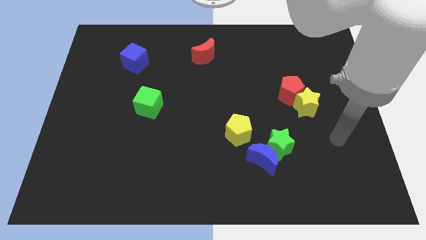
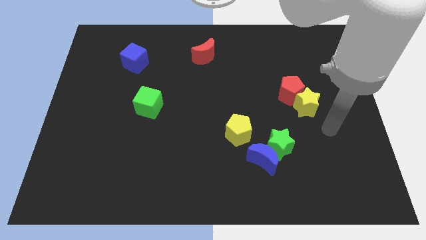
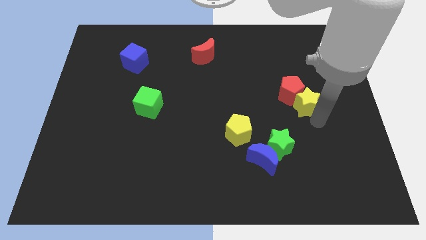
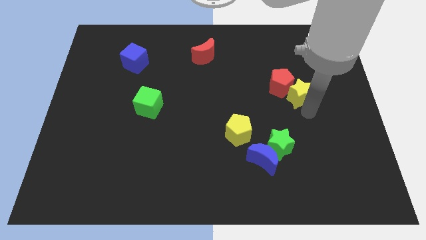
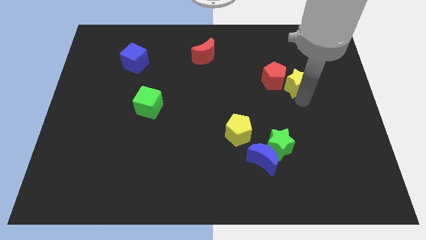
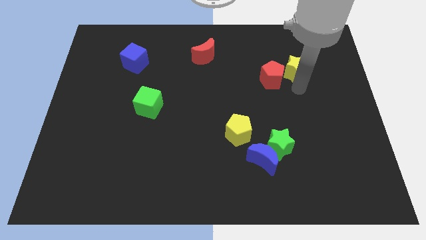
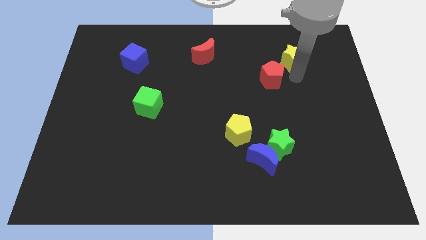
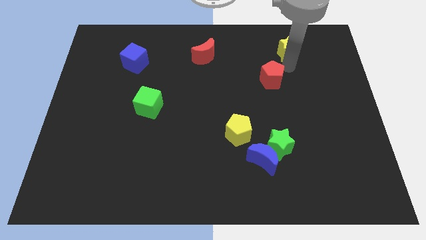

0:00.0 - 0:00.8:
separate the red pentagon from the yellow star

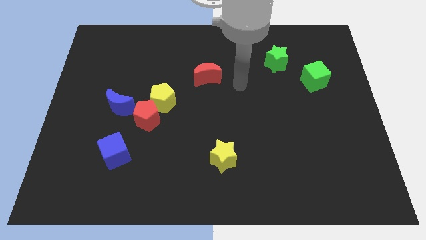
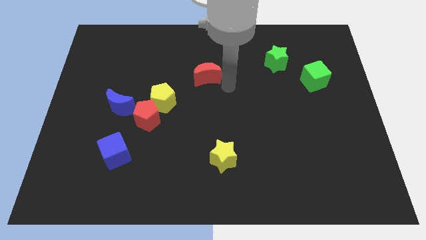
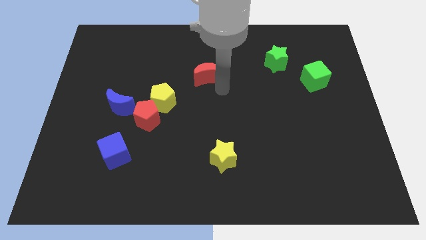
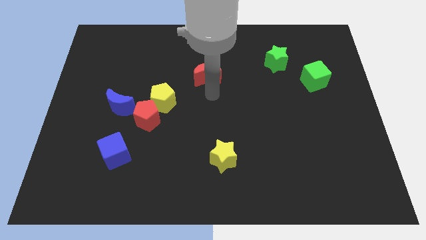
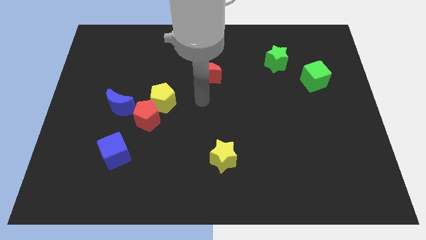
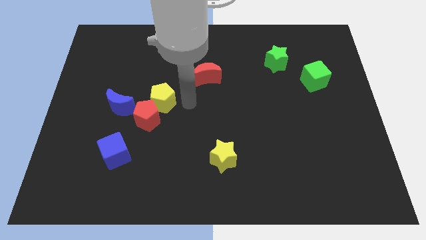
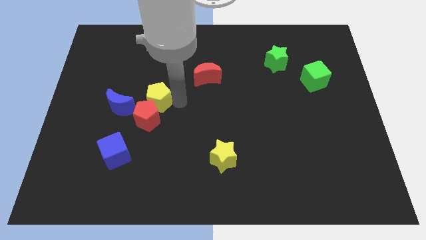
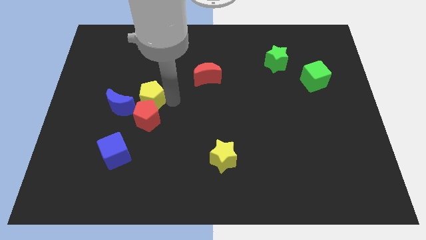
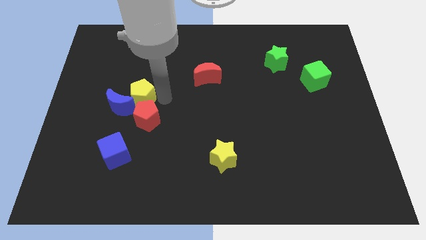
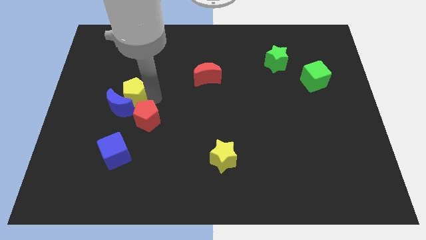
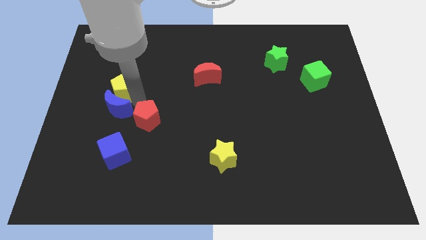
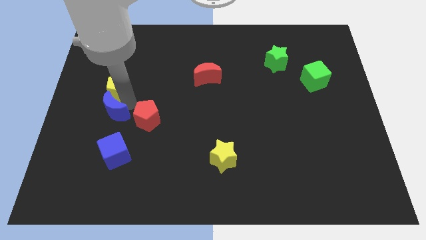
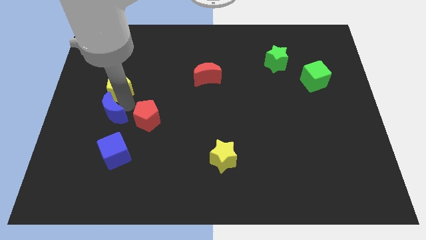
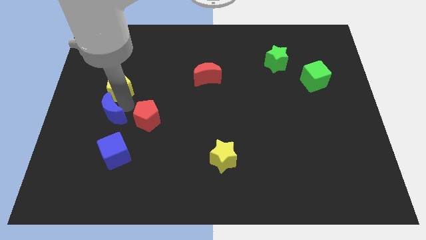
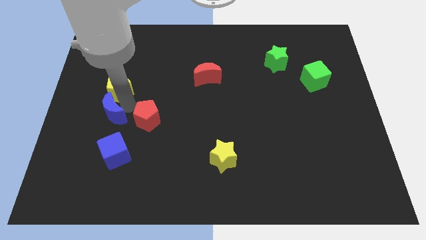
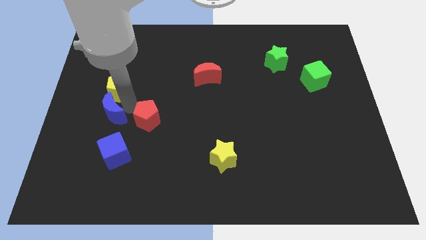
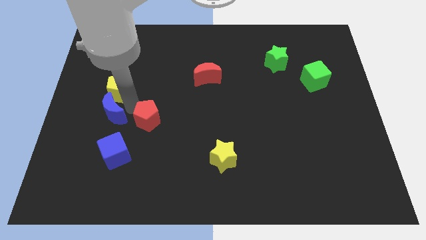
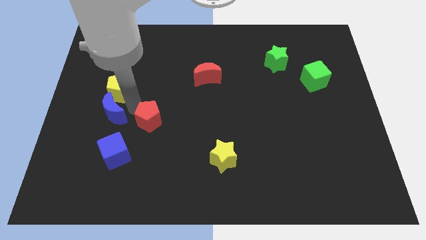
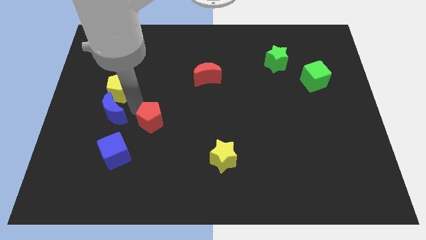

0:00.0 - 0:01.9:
move the red pentagon away from the yellow pentagon and blue moon

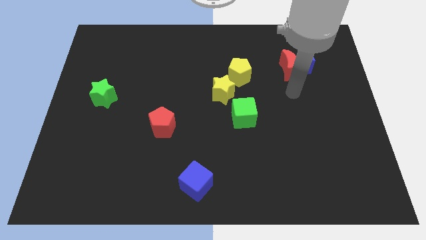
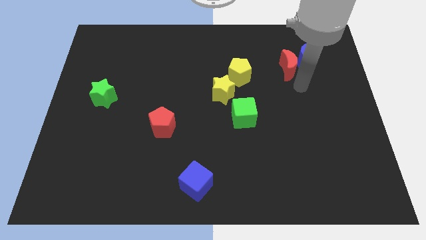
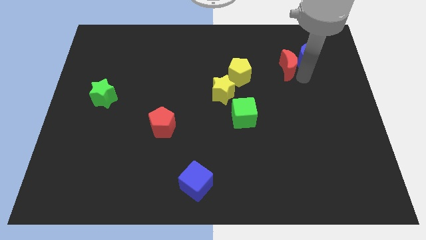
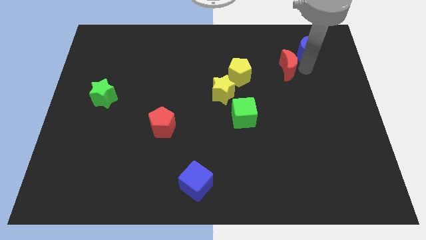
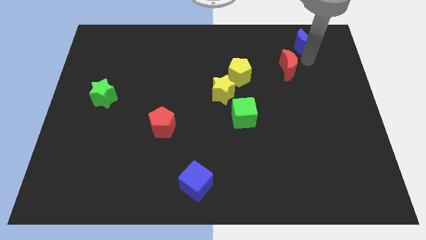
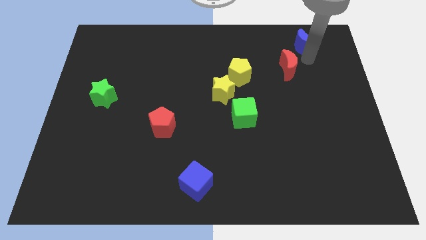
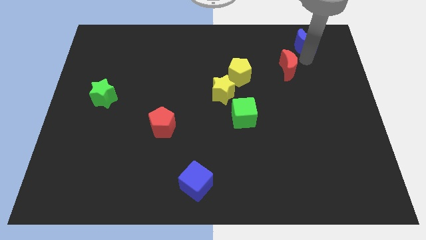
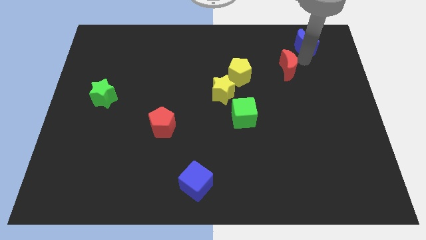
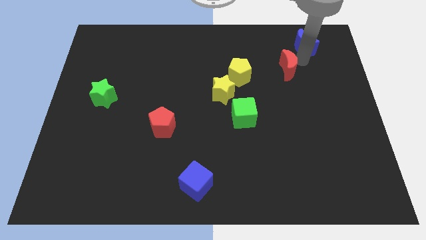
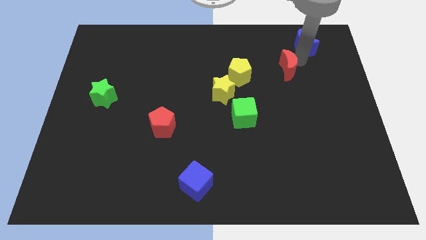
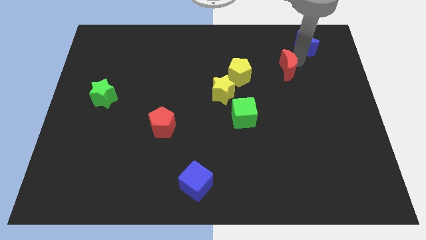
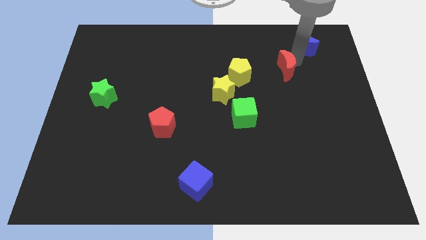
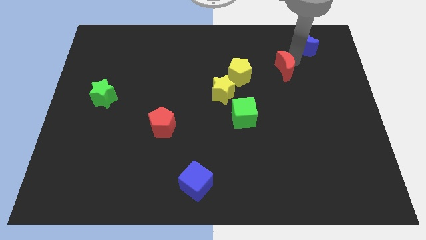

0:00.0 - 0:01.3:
pull the red moon apart from the blue moon

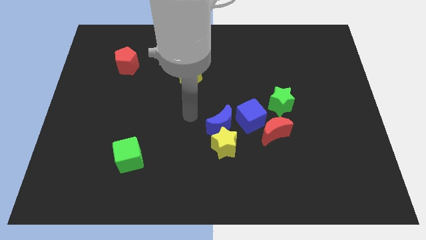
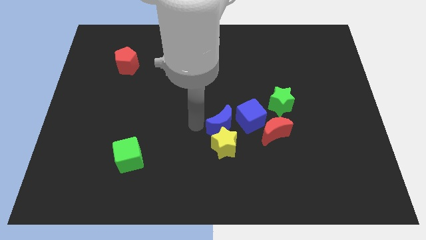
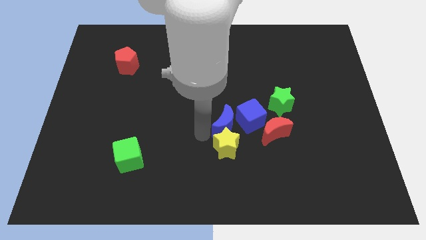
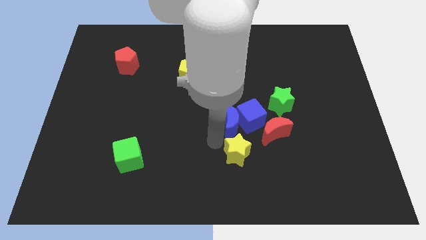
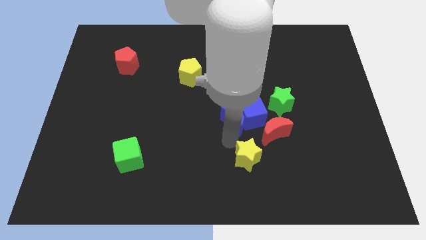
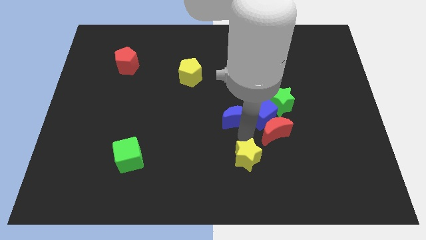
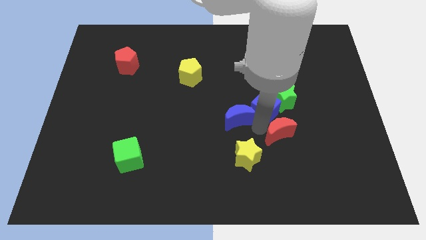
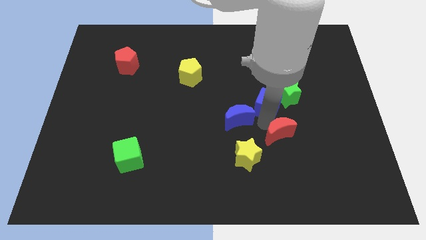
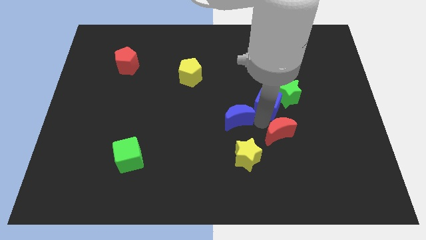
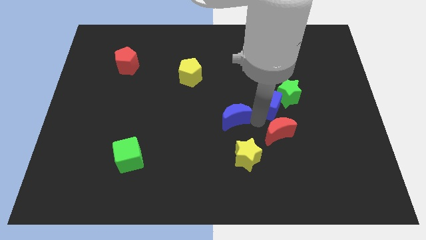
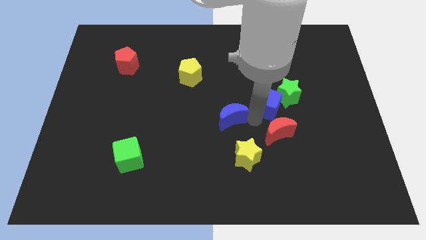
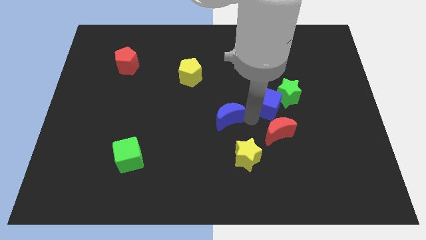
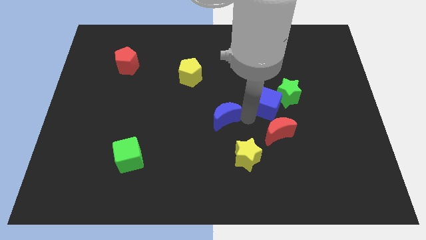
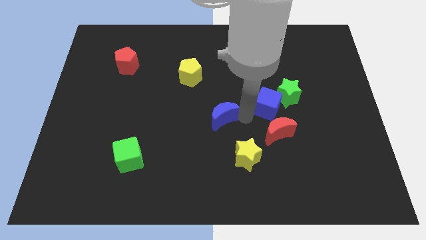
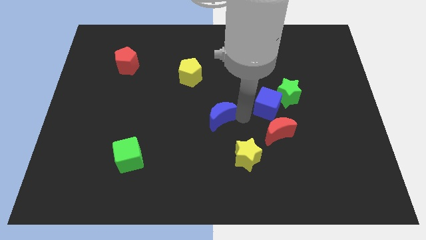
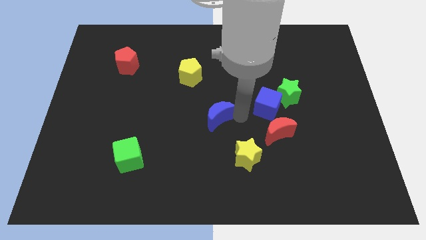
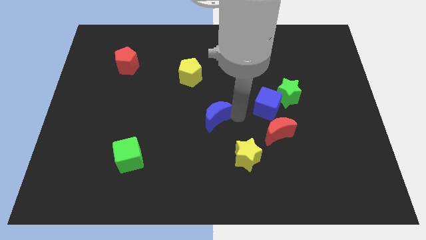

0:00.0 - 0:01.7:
move the blue moon away from the yellow star and blue cube

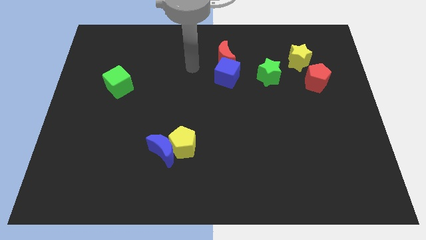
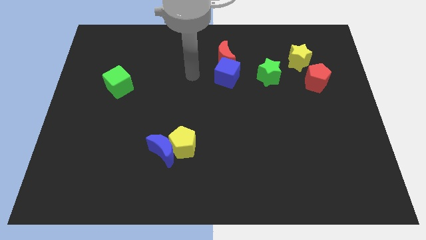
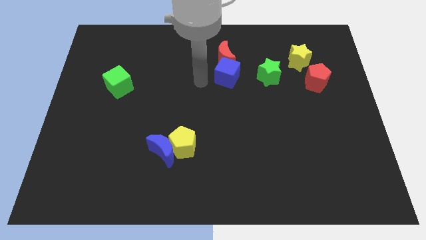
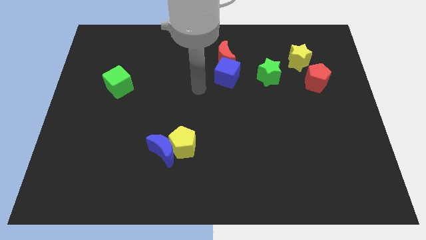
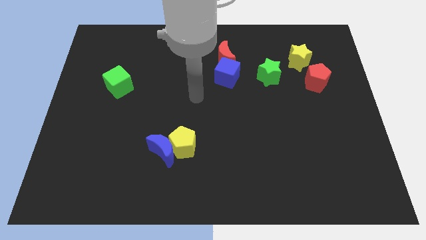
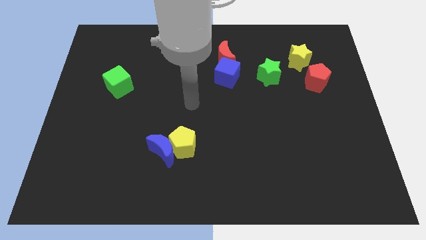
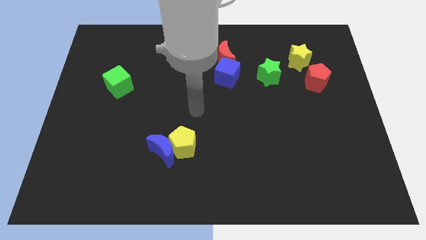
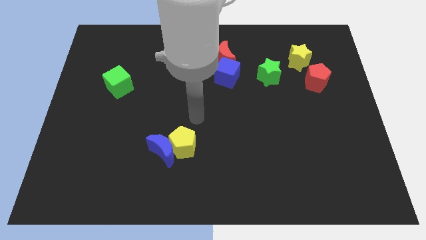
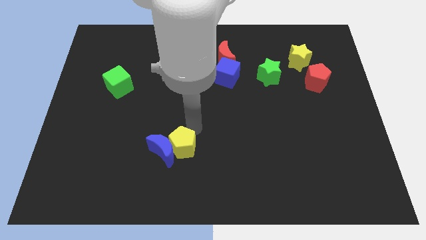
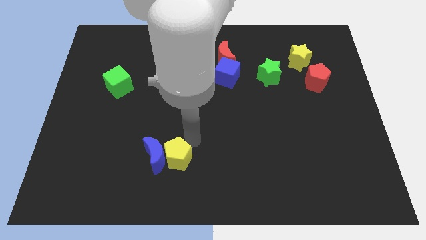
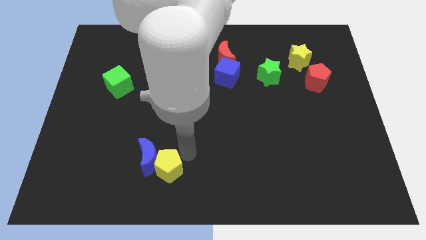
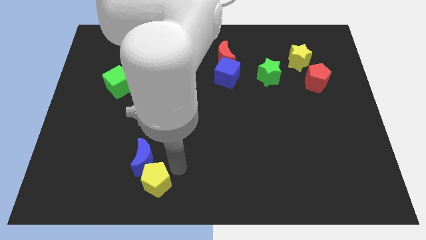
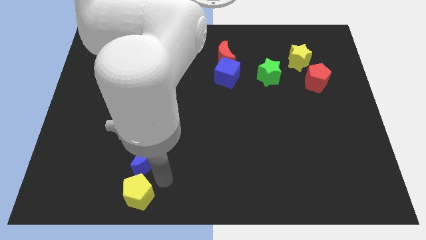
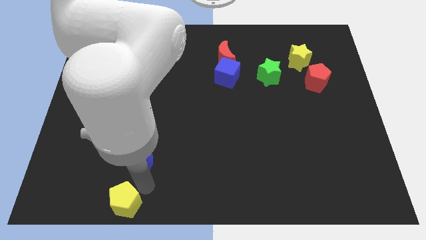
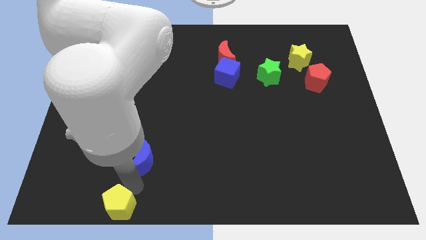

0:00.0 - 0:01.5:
separate the blue moon from the yellow pentagon

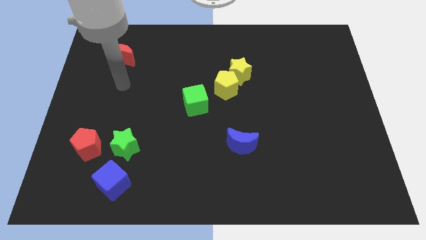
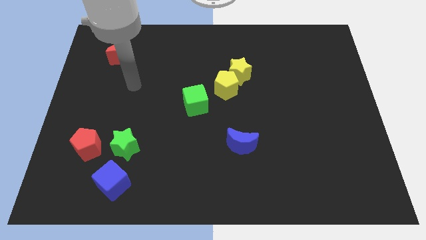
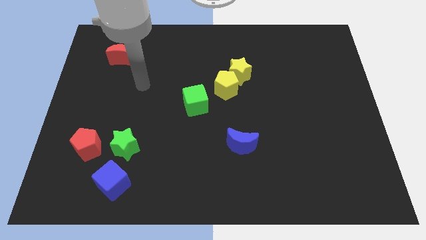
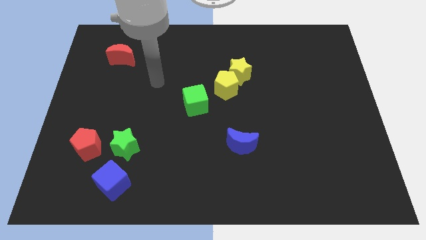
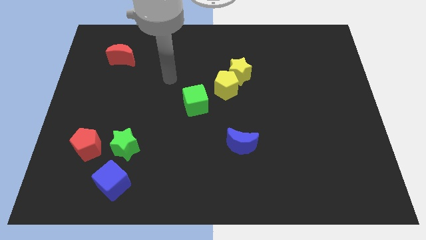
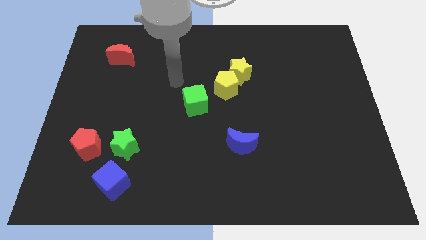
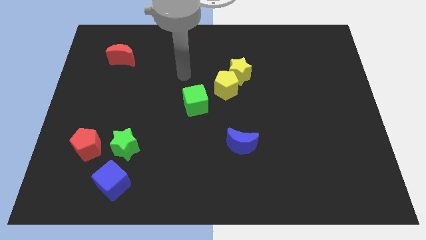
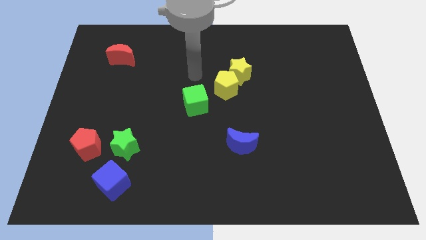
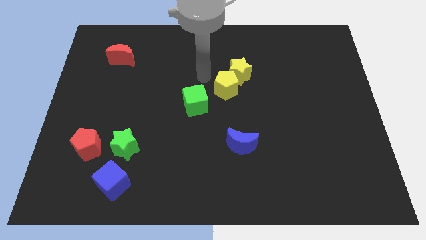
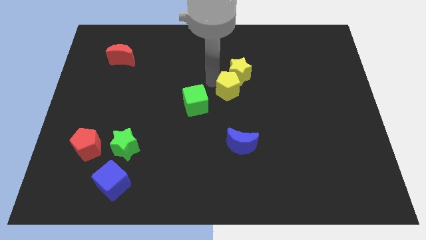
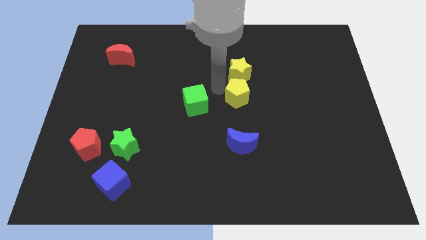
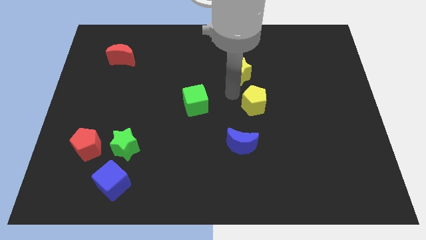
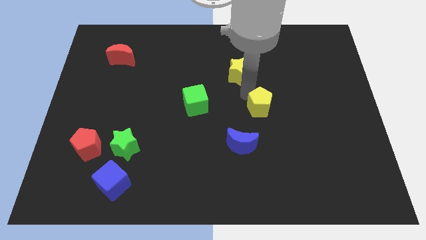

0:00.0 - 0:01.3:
pull the yellow star apart from the yellow pentagon

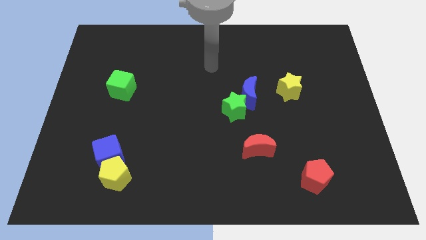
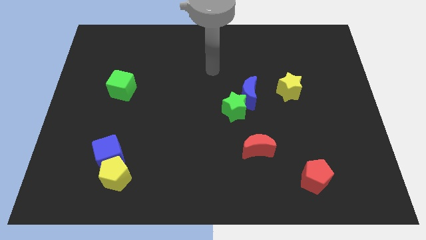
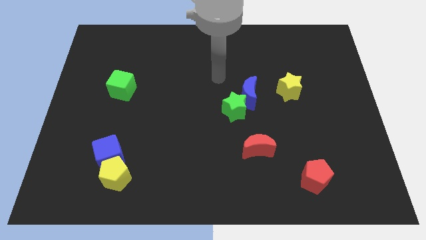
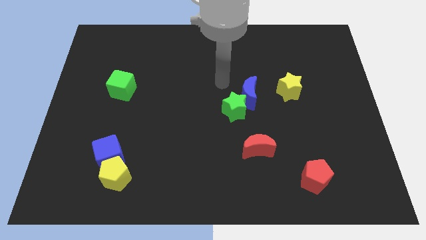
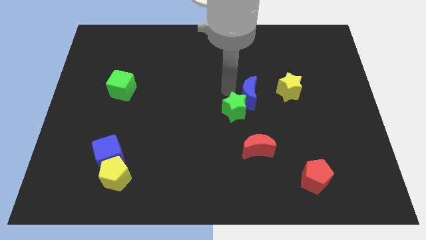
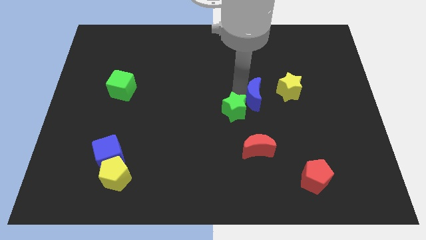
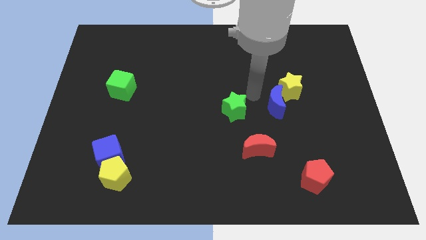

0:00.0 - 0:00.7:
separate the green star from the blue moon
